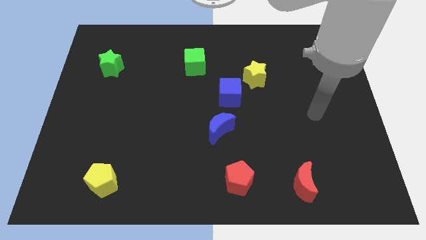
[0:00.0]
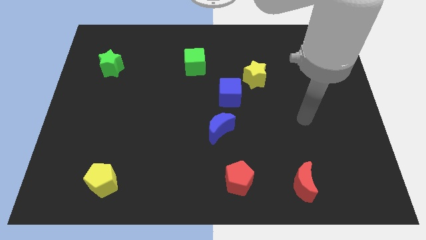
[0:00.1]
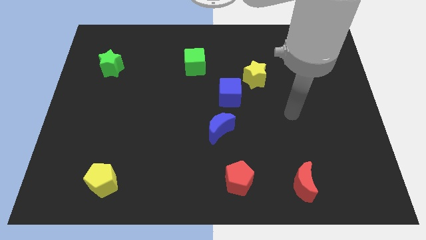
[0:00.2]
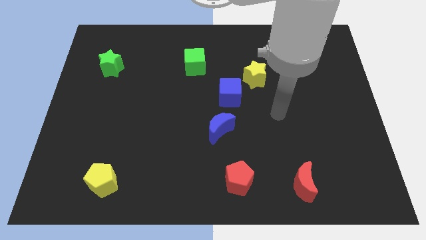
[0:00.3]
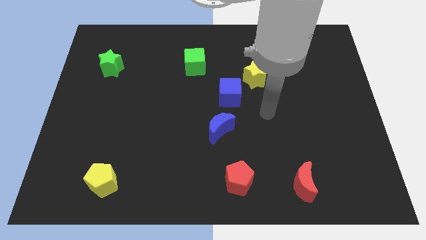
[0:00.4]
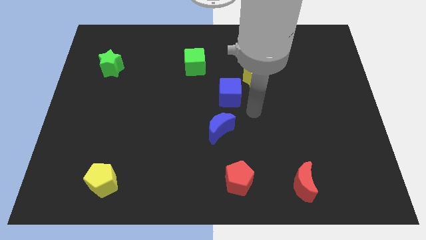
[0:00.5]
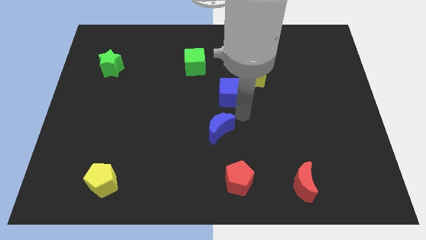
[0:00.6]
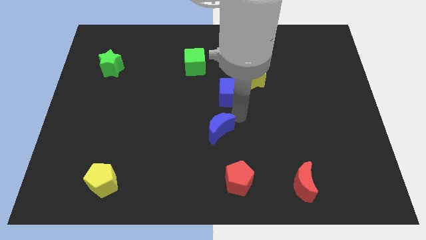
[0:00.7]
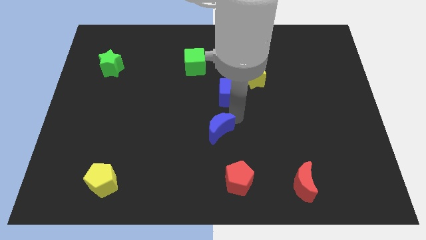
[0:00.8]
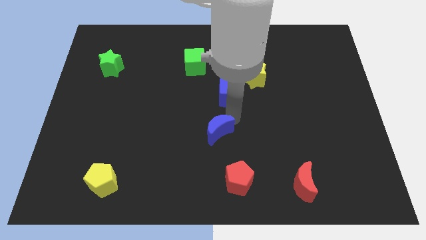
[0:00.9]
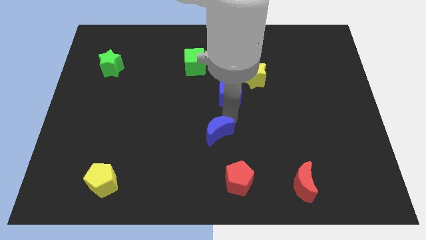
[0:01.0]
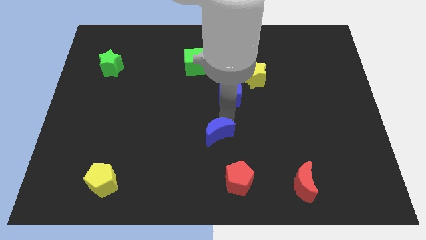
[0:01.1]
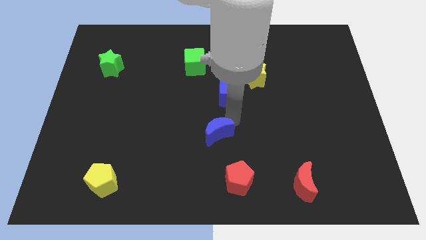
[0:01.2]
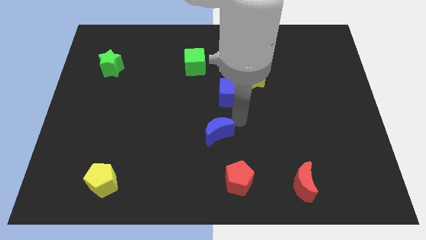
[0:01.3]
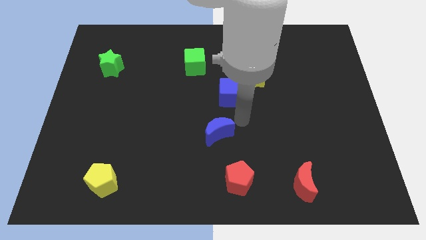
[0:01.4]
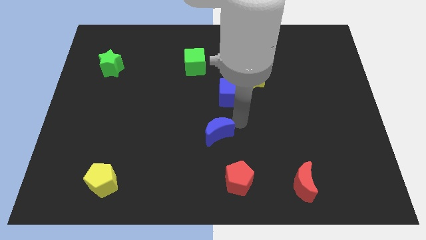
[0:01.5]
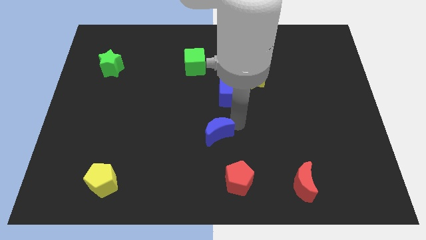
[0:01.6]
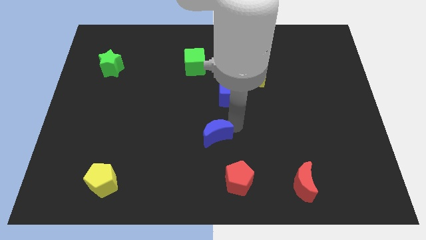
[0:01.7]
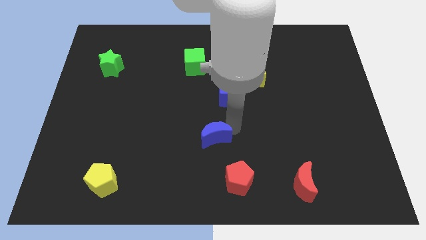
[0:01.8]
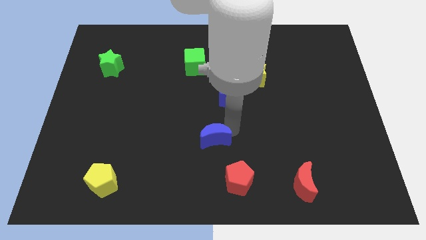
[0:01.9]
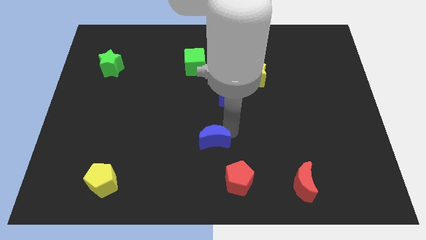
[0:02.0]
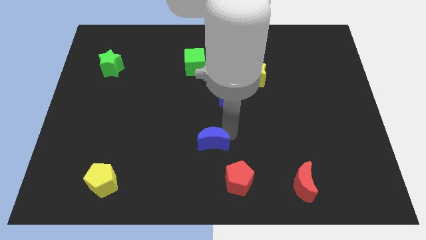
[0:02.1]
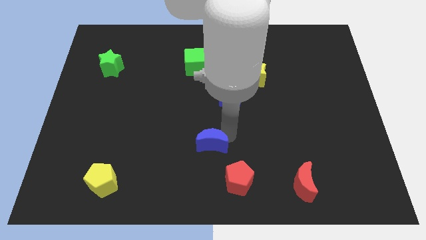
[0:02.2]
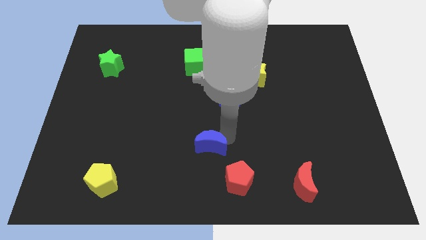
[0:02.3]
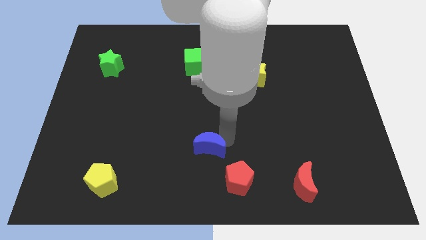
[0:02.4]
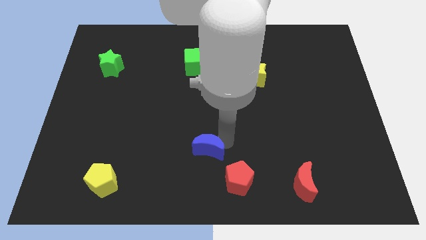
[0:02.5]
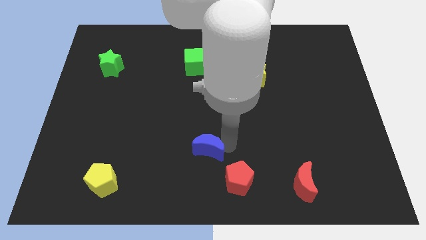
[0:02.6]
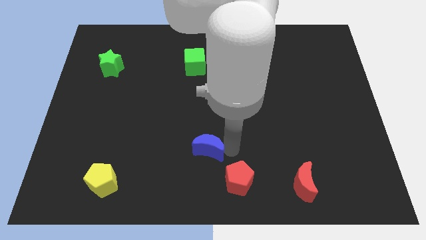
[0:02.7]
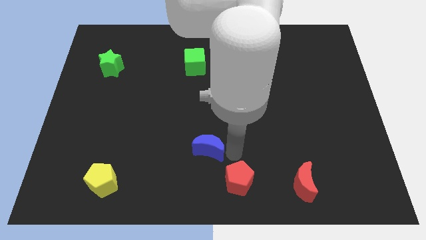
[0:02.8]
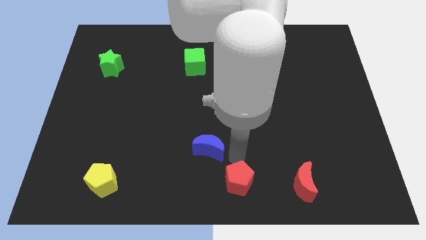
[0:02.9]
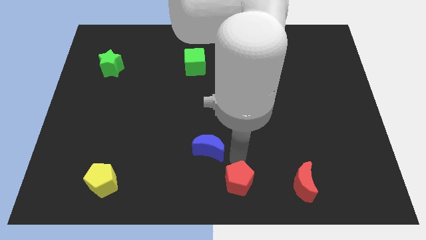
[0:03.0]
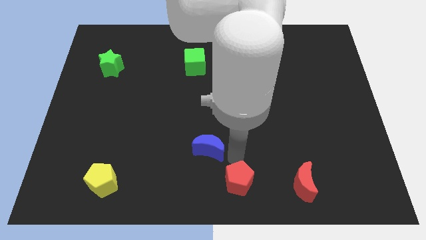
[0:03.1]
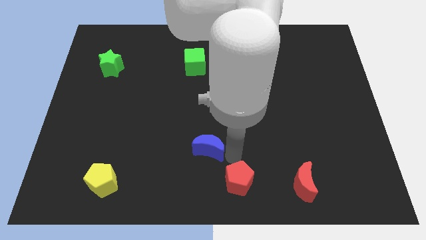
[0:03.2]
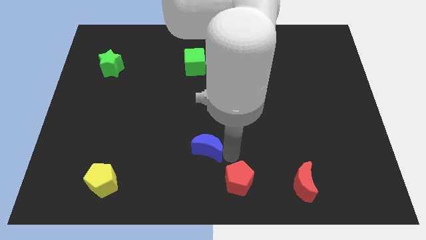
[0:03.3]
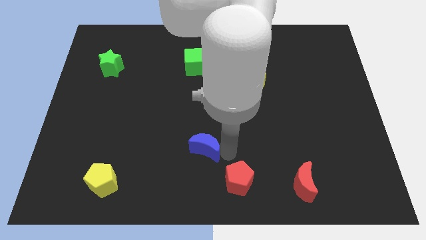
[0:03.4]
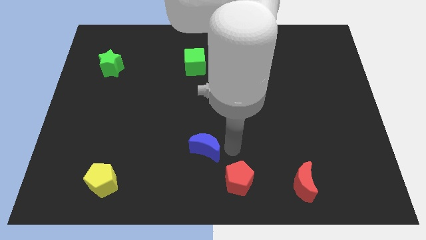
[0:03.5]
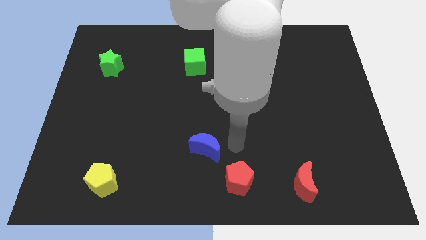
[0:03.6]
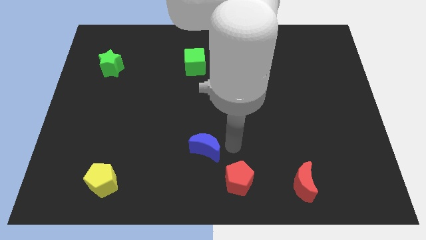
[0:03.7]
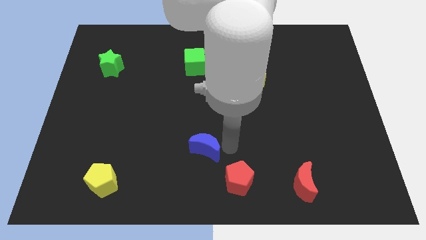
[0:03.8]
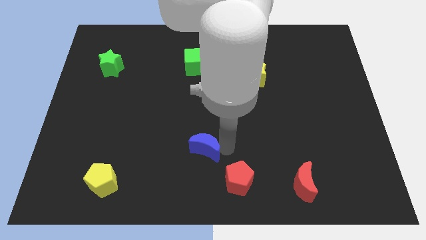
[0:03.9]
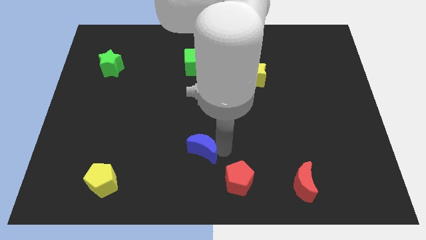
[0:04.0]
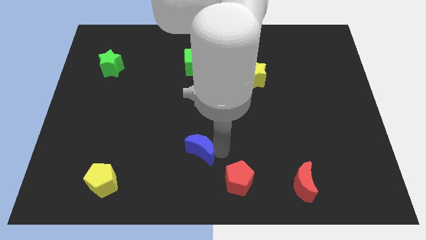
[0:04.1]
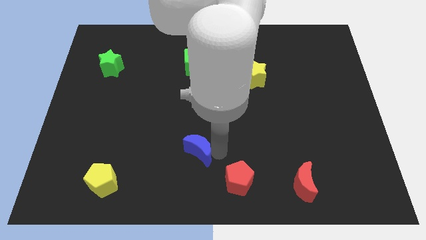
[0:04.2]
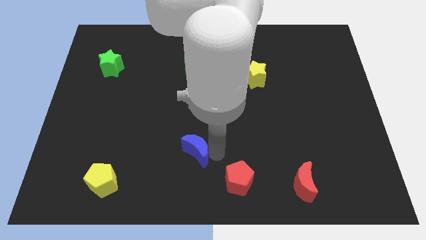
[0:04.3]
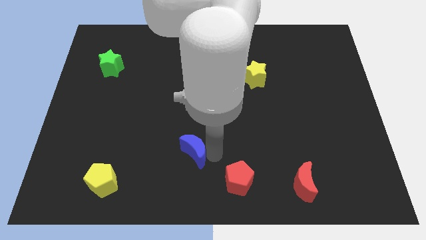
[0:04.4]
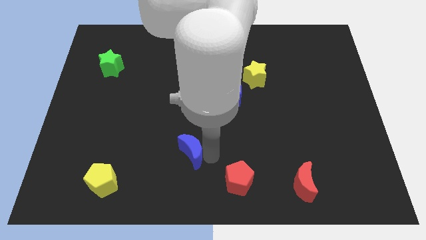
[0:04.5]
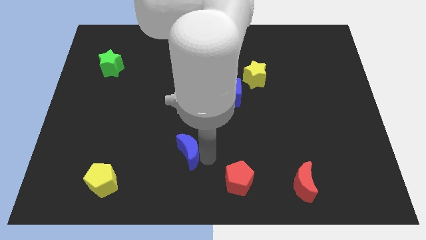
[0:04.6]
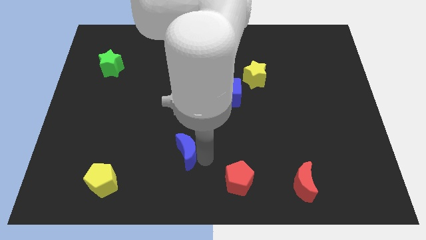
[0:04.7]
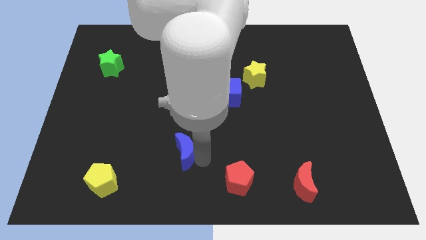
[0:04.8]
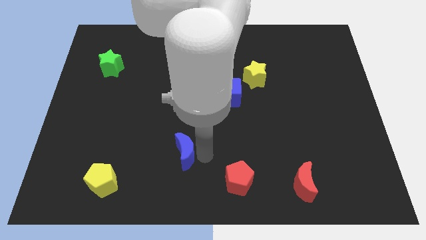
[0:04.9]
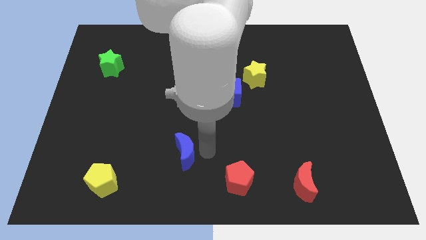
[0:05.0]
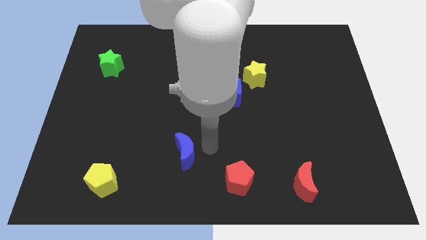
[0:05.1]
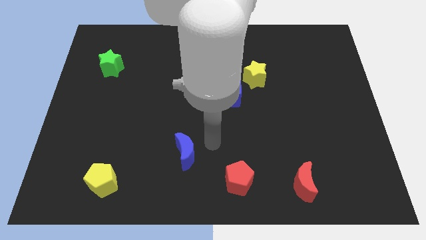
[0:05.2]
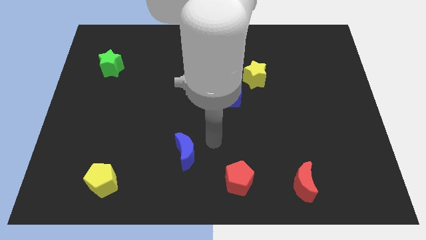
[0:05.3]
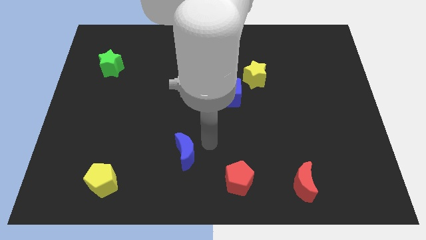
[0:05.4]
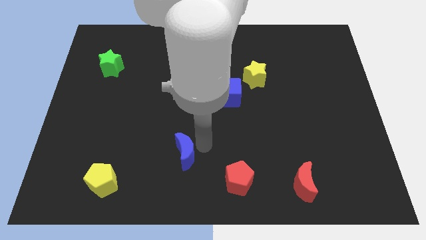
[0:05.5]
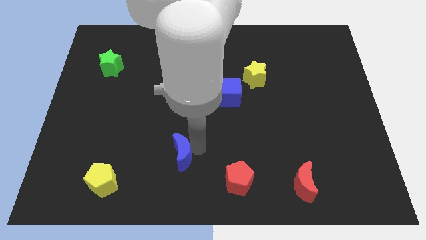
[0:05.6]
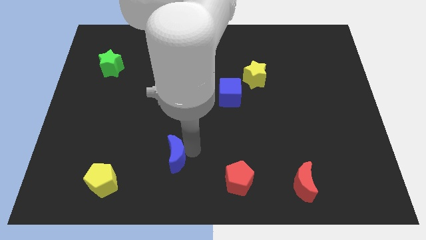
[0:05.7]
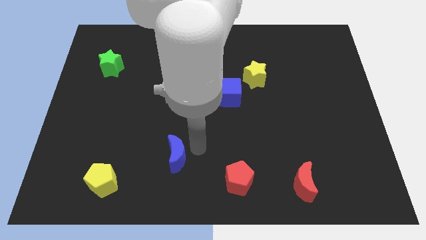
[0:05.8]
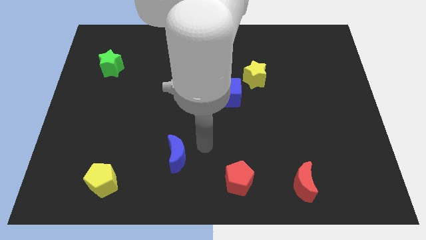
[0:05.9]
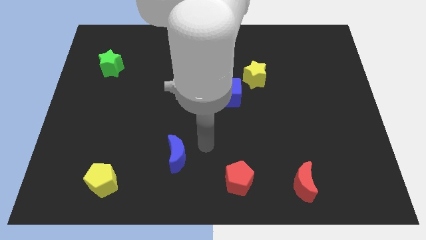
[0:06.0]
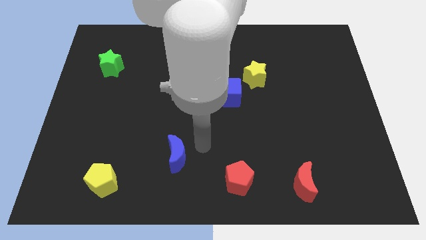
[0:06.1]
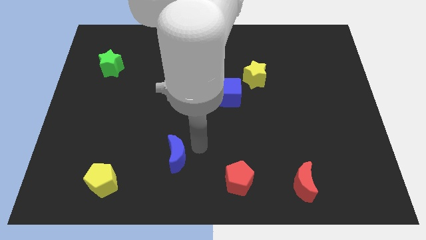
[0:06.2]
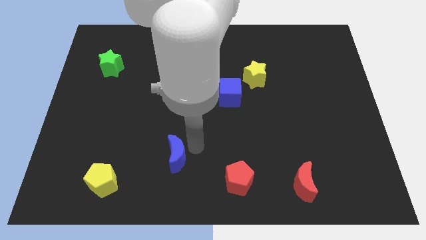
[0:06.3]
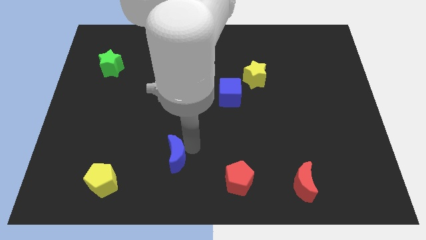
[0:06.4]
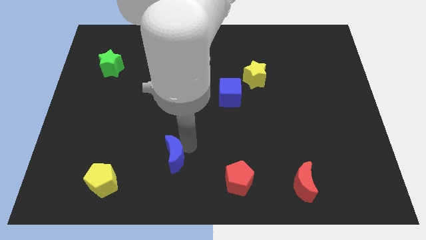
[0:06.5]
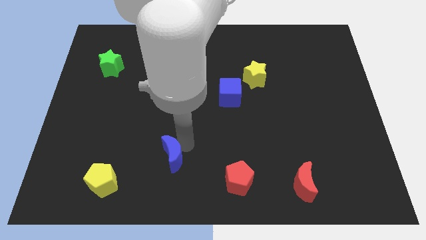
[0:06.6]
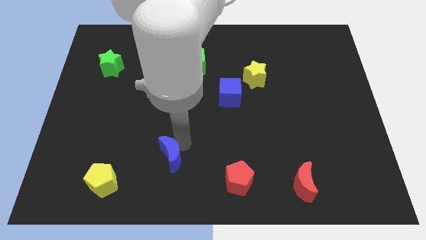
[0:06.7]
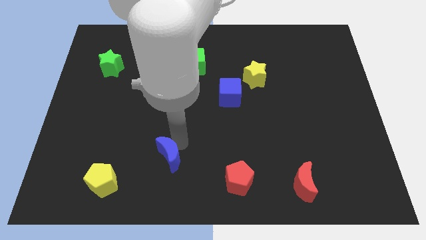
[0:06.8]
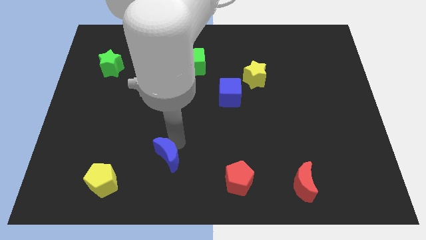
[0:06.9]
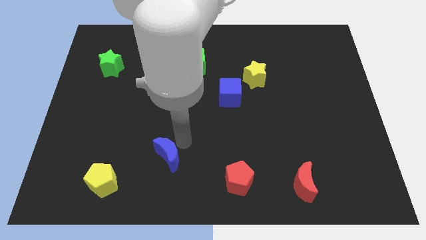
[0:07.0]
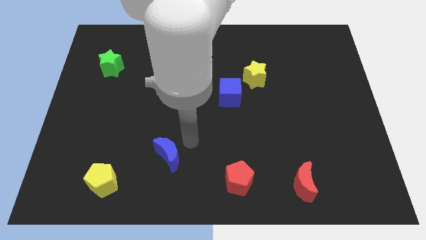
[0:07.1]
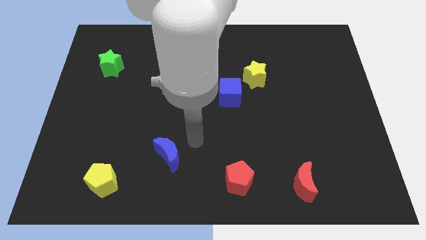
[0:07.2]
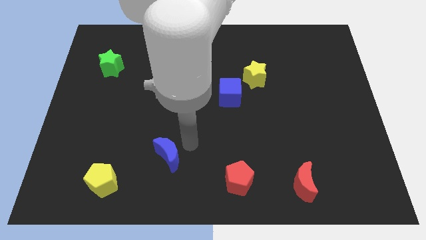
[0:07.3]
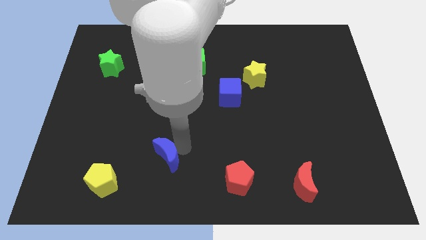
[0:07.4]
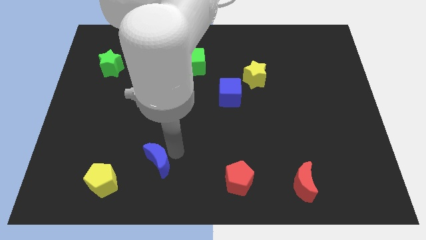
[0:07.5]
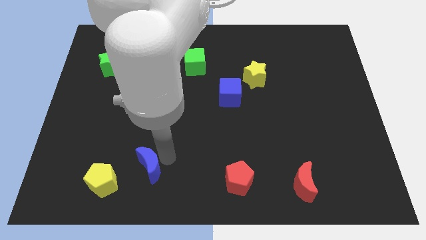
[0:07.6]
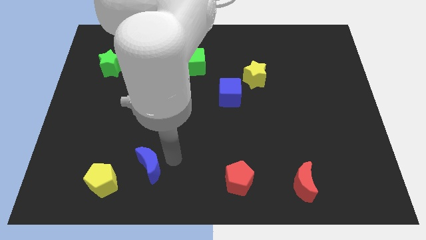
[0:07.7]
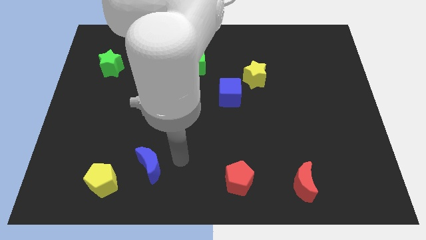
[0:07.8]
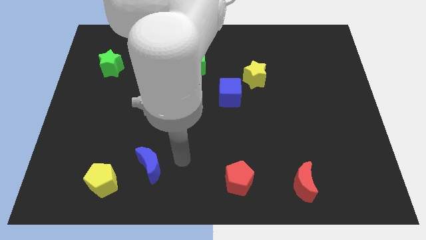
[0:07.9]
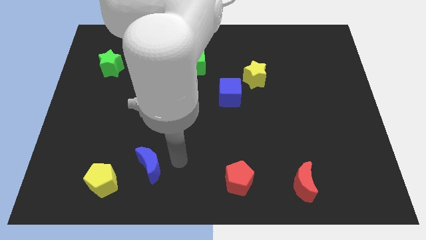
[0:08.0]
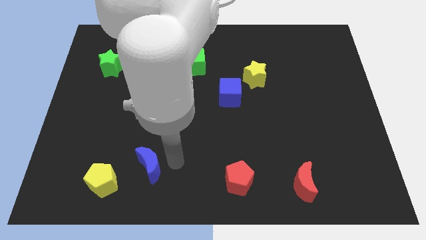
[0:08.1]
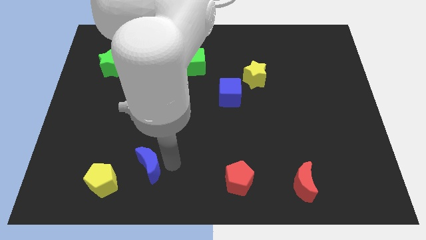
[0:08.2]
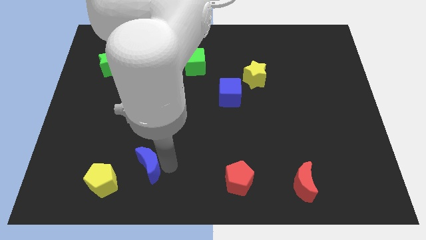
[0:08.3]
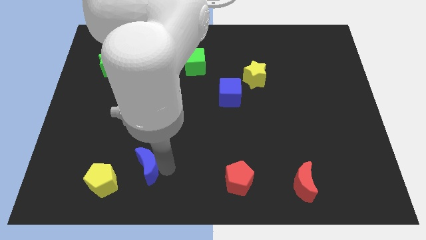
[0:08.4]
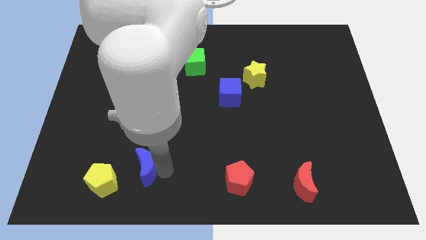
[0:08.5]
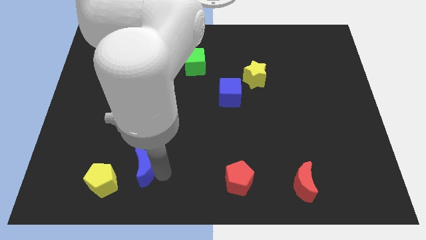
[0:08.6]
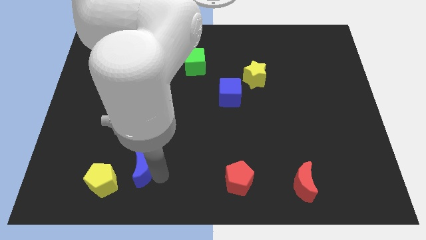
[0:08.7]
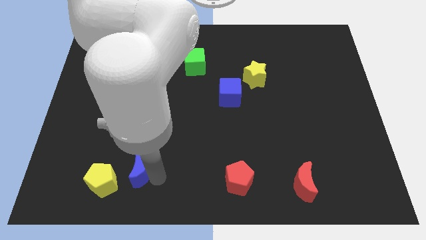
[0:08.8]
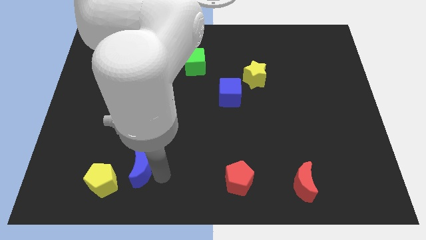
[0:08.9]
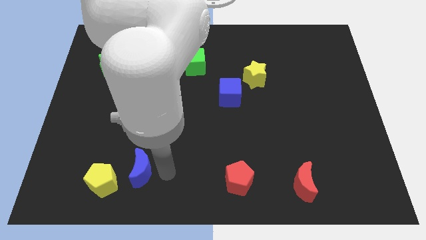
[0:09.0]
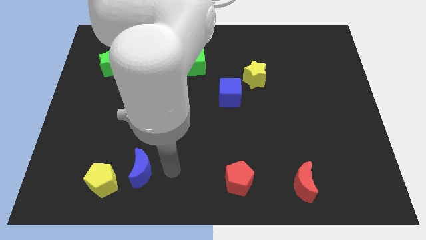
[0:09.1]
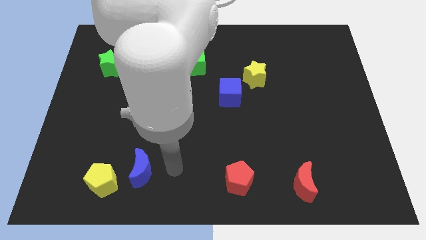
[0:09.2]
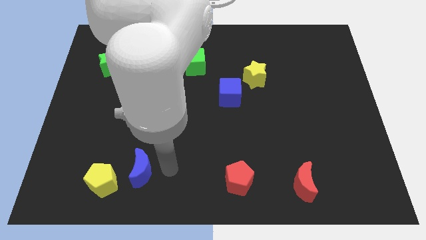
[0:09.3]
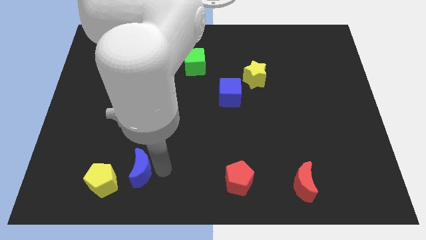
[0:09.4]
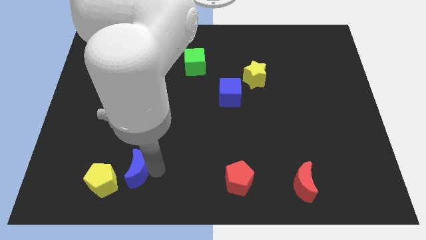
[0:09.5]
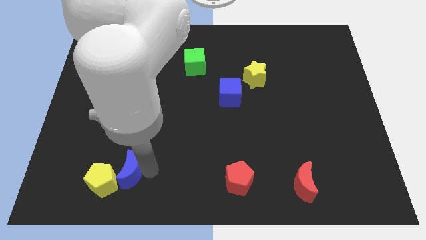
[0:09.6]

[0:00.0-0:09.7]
put the blue moon next to the yellow pentagon
